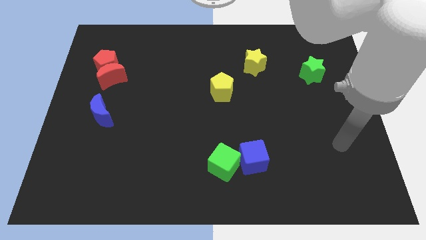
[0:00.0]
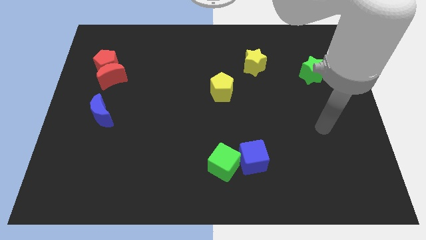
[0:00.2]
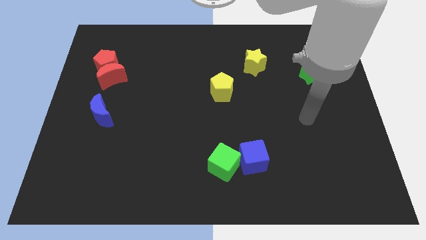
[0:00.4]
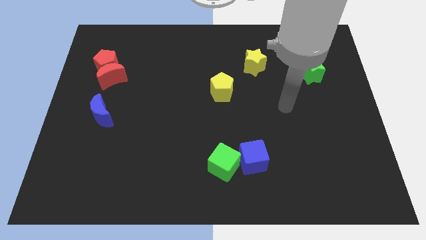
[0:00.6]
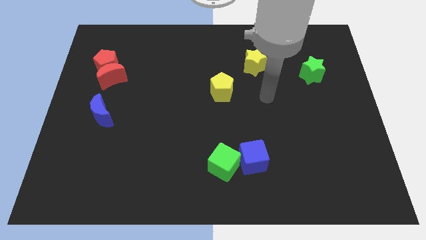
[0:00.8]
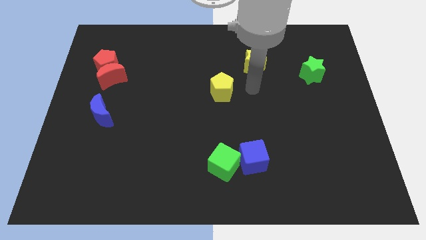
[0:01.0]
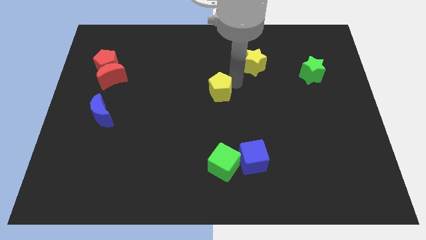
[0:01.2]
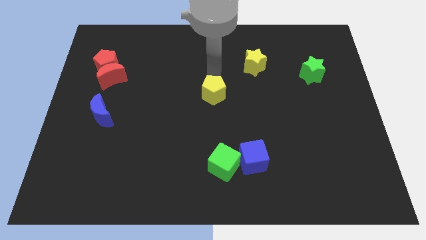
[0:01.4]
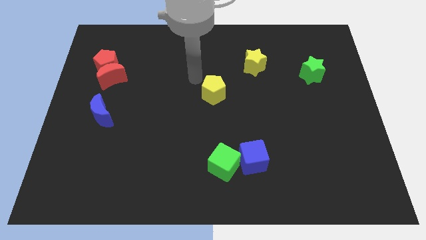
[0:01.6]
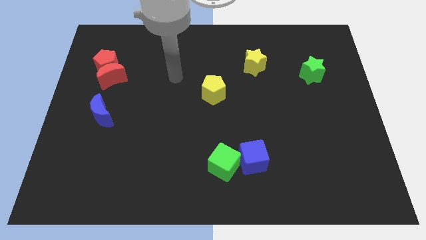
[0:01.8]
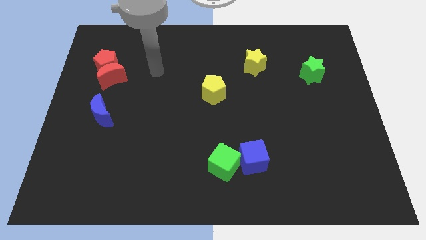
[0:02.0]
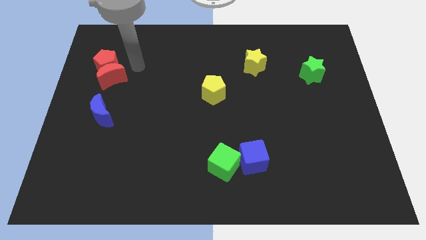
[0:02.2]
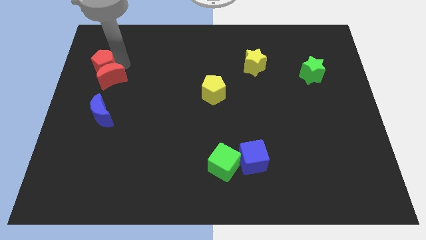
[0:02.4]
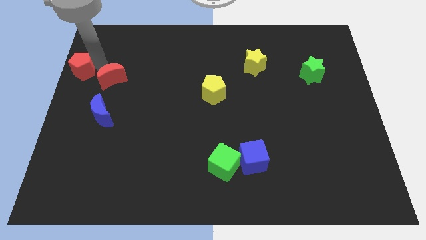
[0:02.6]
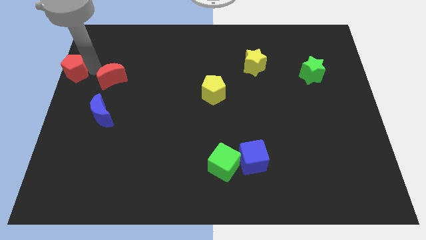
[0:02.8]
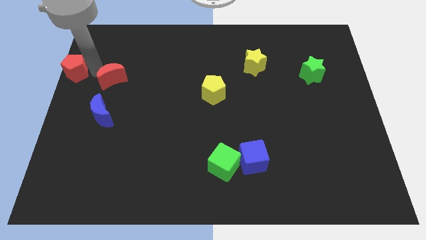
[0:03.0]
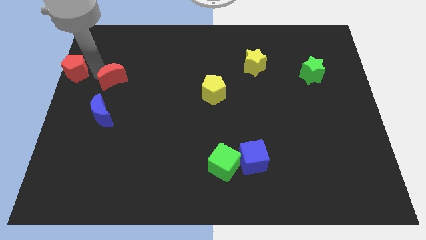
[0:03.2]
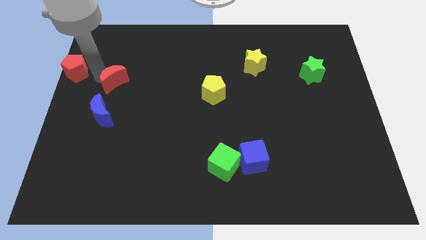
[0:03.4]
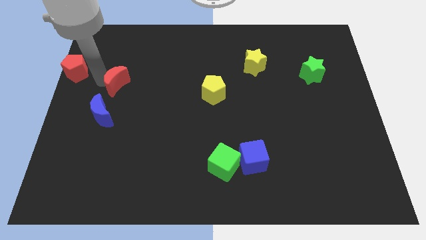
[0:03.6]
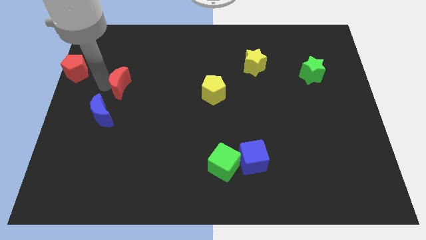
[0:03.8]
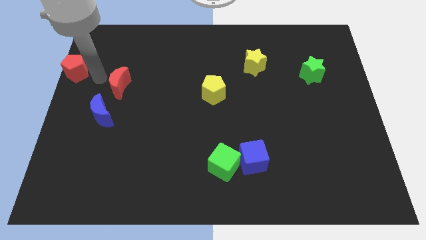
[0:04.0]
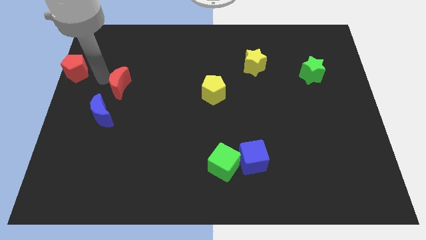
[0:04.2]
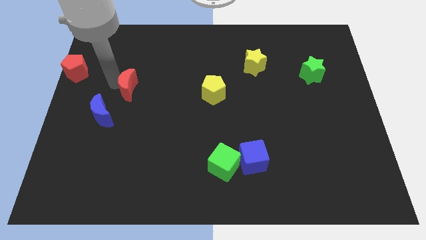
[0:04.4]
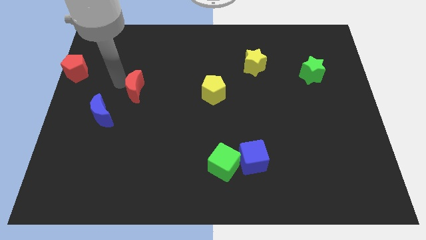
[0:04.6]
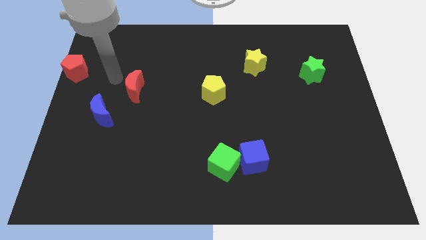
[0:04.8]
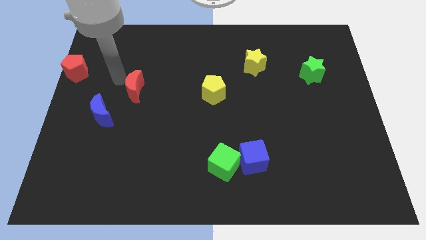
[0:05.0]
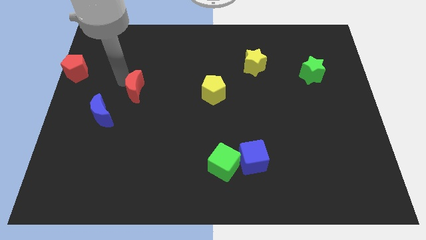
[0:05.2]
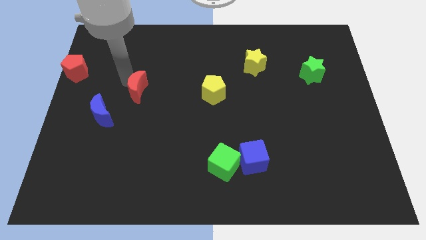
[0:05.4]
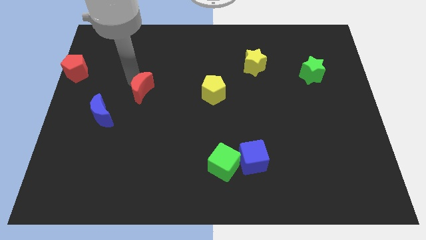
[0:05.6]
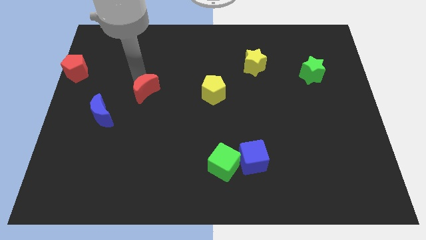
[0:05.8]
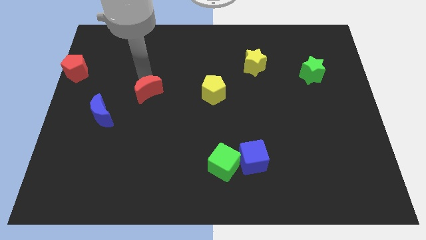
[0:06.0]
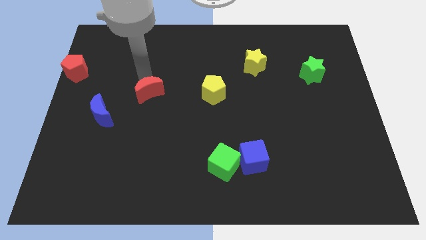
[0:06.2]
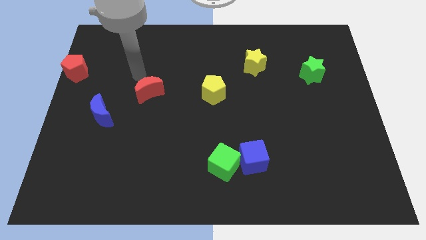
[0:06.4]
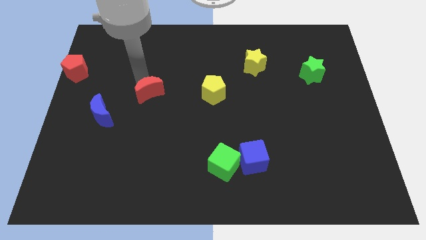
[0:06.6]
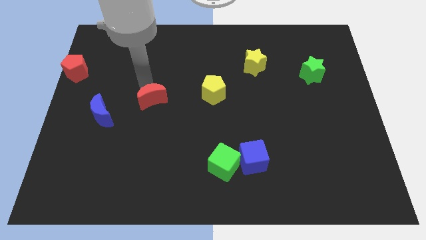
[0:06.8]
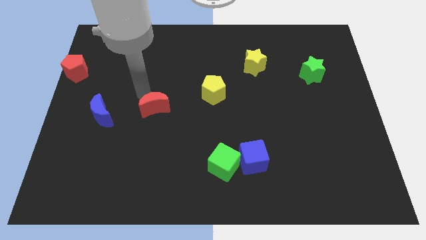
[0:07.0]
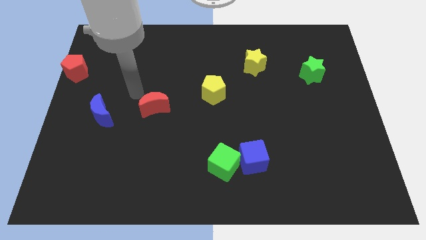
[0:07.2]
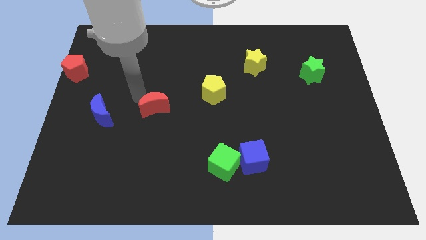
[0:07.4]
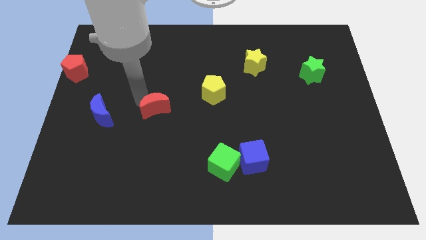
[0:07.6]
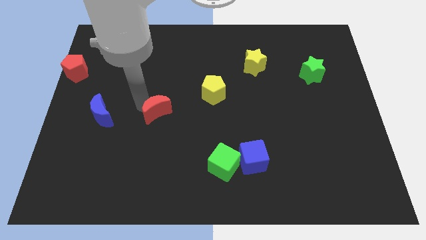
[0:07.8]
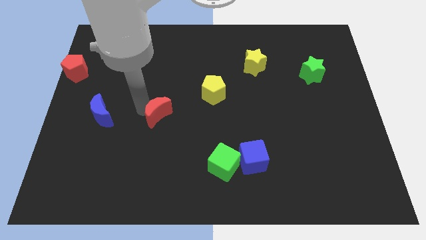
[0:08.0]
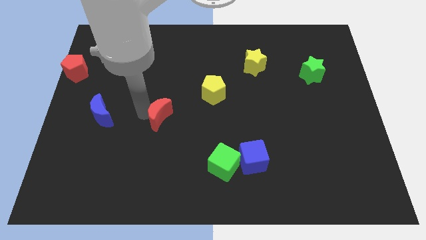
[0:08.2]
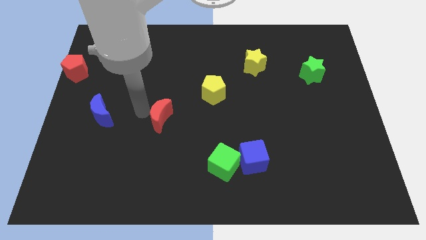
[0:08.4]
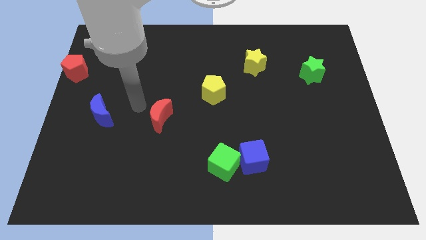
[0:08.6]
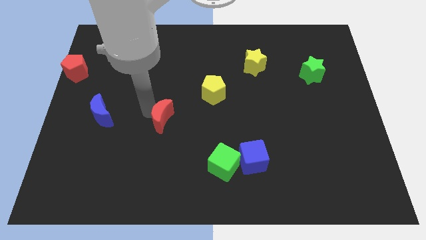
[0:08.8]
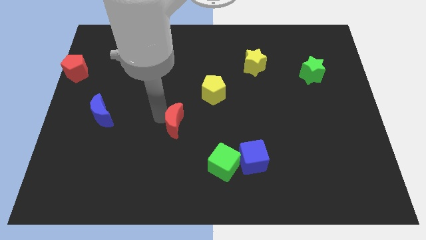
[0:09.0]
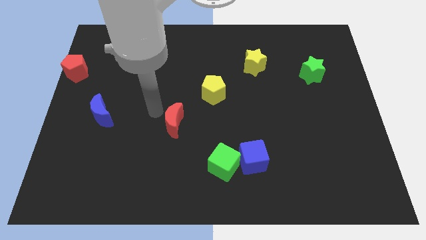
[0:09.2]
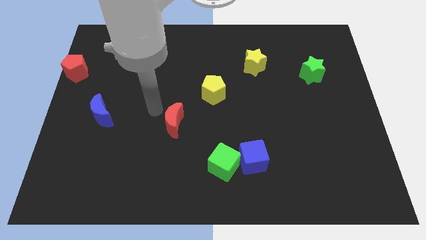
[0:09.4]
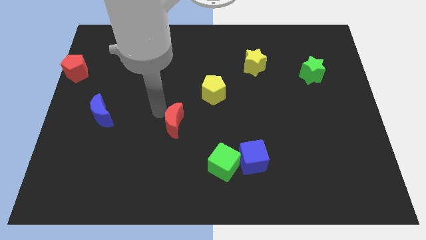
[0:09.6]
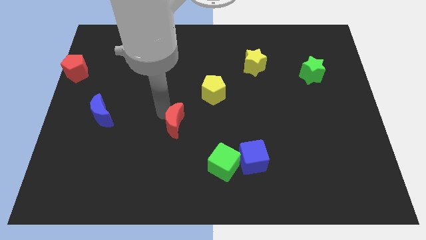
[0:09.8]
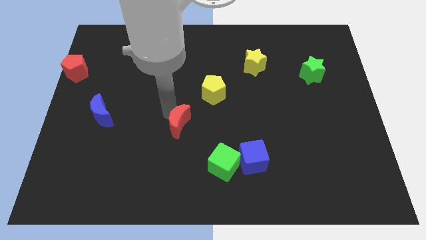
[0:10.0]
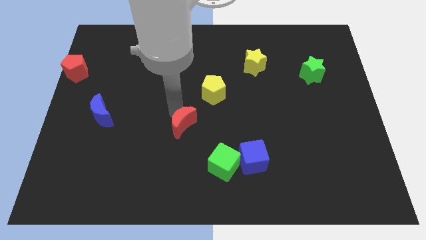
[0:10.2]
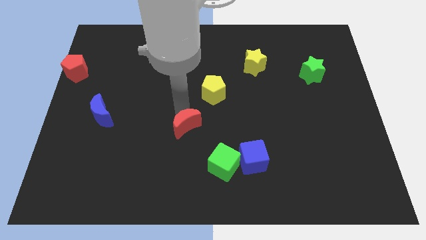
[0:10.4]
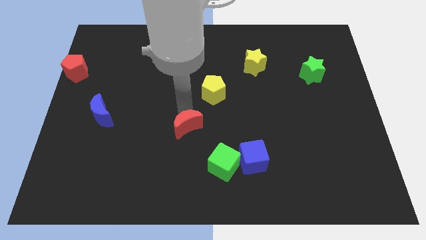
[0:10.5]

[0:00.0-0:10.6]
push the red moon to the top left of the green cube

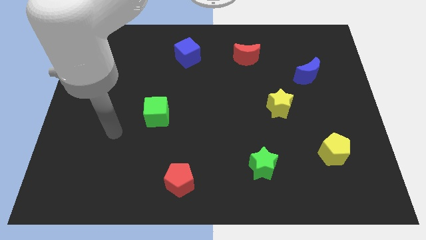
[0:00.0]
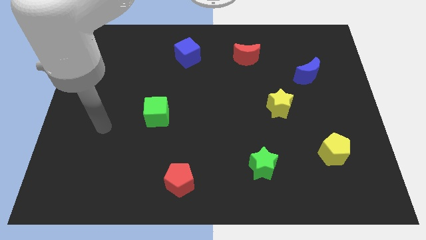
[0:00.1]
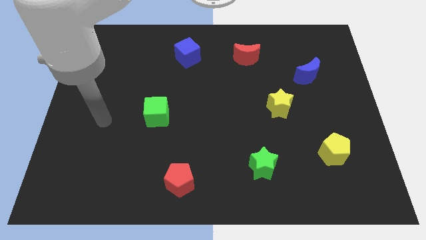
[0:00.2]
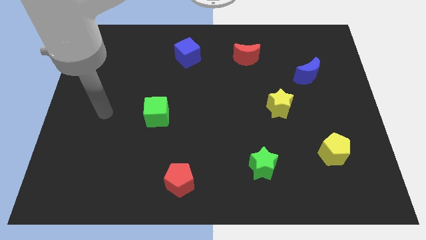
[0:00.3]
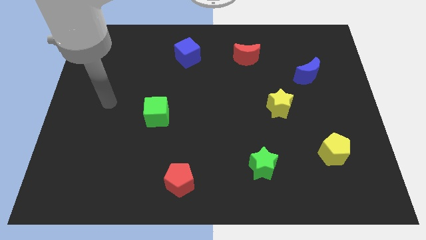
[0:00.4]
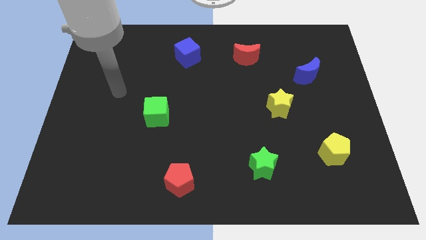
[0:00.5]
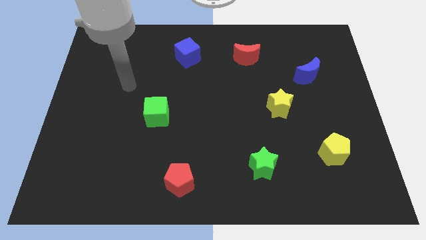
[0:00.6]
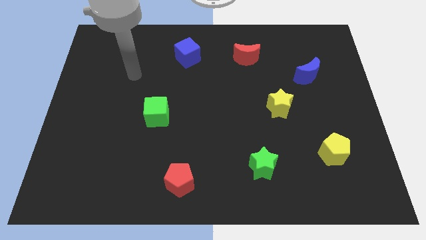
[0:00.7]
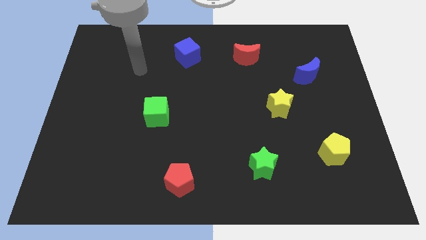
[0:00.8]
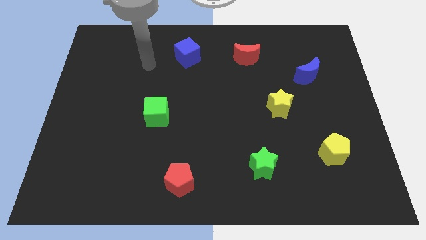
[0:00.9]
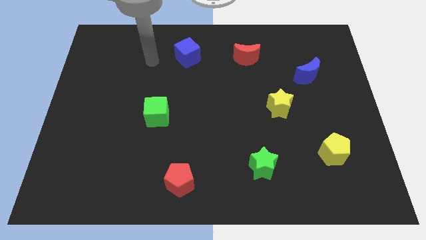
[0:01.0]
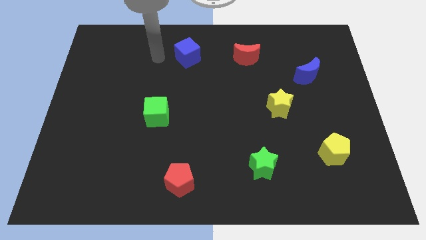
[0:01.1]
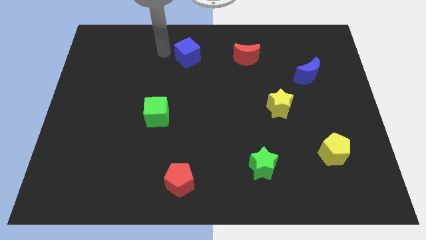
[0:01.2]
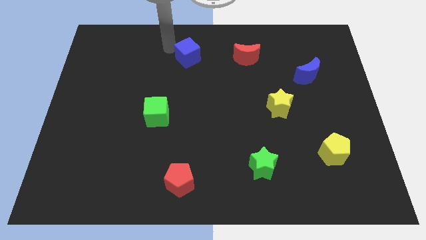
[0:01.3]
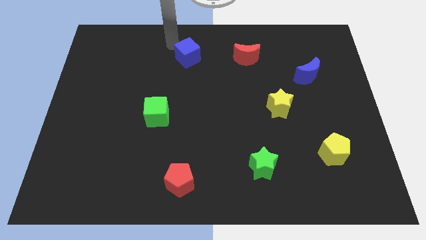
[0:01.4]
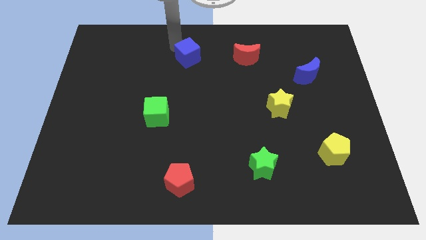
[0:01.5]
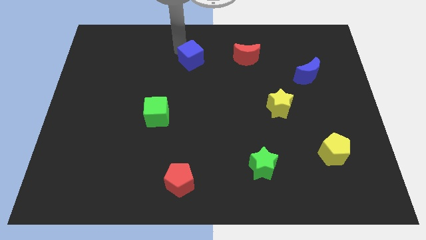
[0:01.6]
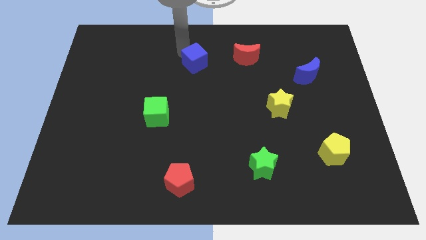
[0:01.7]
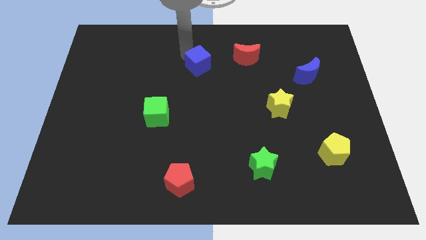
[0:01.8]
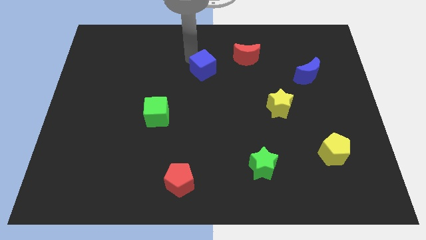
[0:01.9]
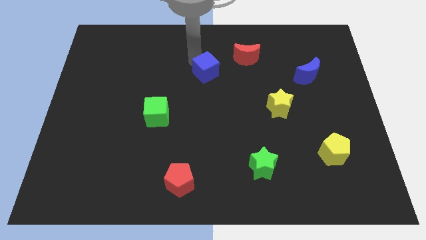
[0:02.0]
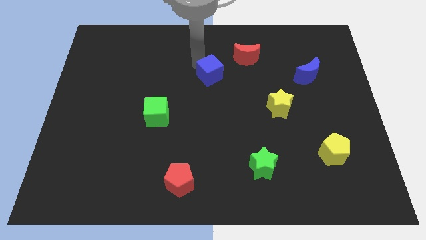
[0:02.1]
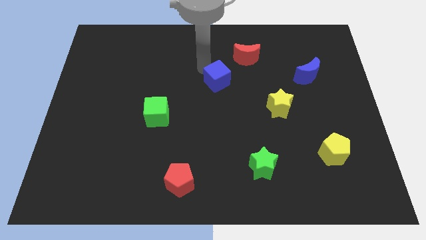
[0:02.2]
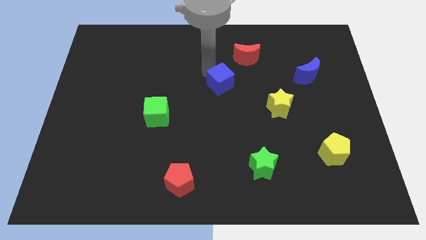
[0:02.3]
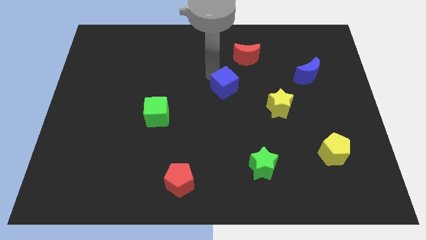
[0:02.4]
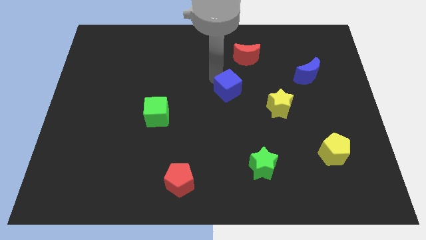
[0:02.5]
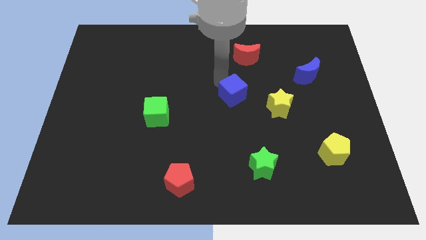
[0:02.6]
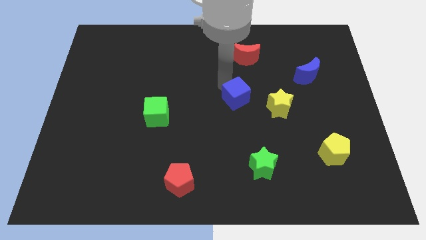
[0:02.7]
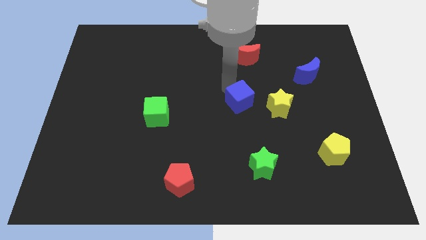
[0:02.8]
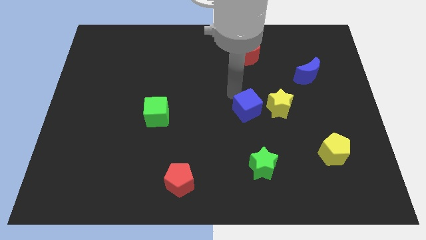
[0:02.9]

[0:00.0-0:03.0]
push the blue cube above the green star
